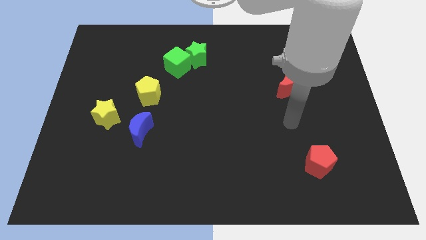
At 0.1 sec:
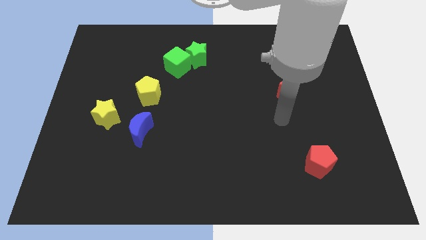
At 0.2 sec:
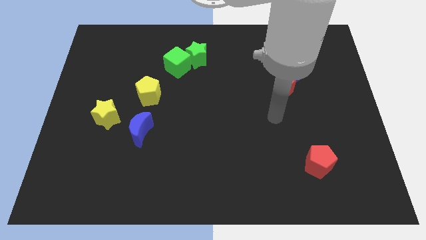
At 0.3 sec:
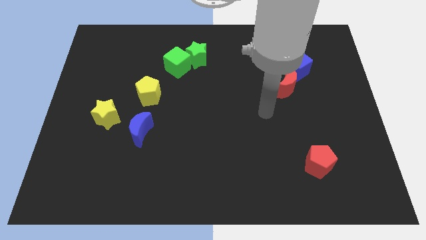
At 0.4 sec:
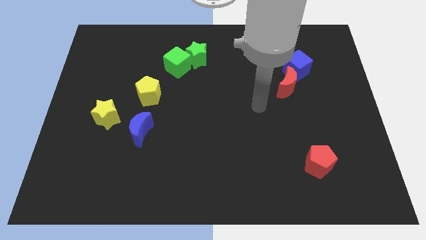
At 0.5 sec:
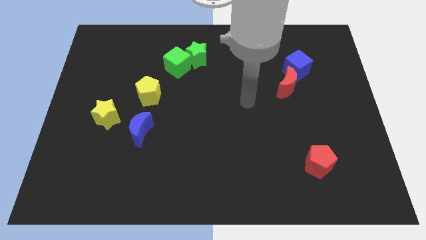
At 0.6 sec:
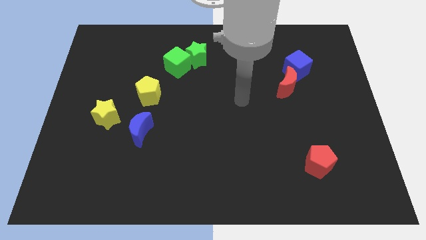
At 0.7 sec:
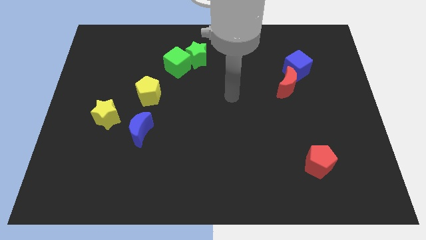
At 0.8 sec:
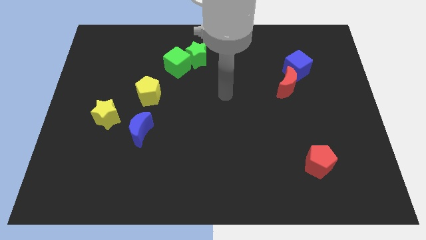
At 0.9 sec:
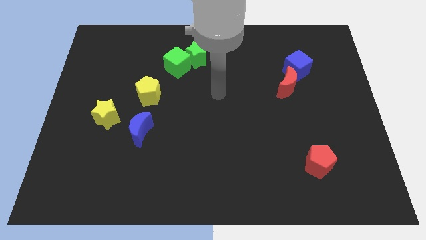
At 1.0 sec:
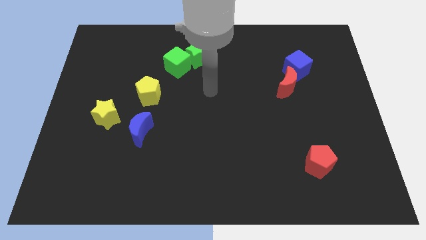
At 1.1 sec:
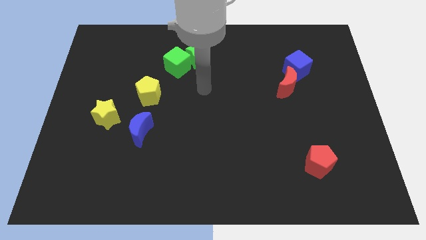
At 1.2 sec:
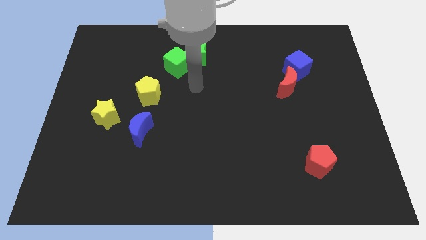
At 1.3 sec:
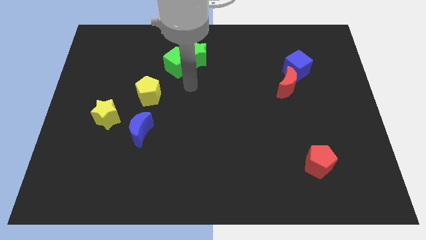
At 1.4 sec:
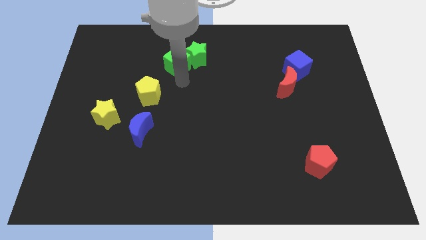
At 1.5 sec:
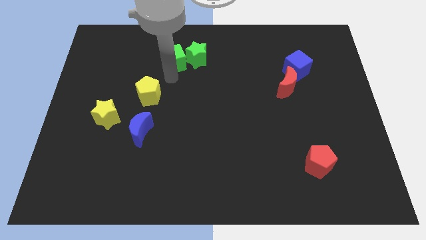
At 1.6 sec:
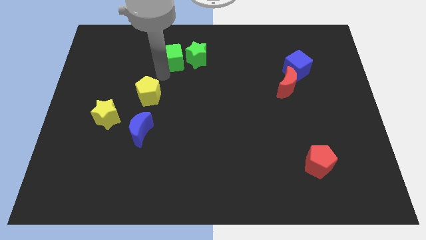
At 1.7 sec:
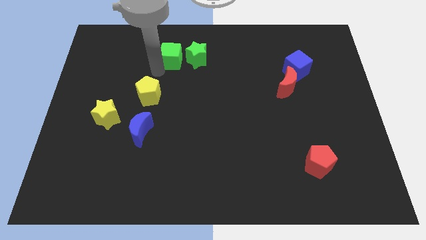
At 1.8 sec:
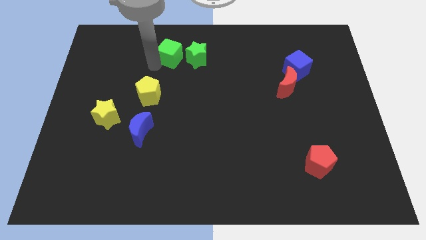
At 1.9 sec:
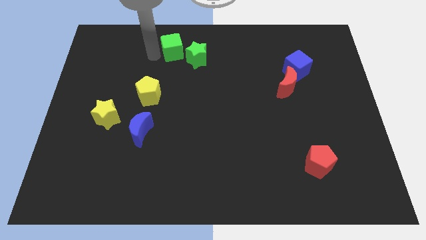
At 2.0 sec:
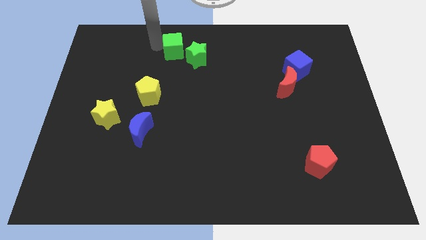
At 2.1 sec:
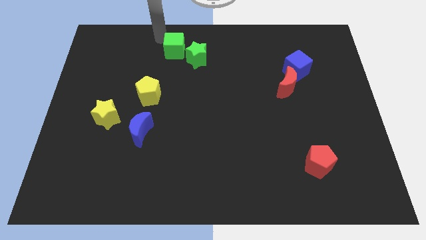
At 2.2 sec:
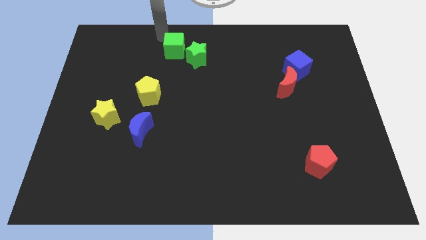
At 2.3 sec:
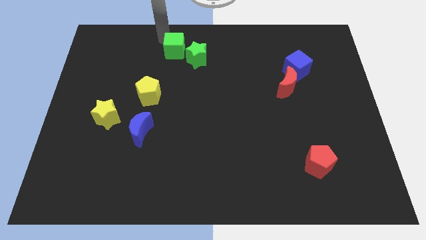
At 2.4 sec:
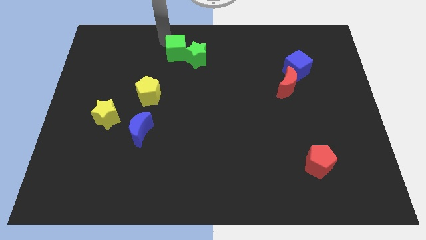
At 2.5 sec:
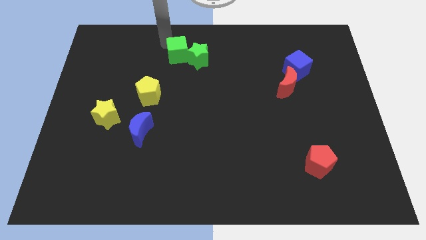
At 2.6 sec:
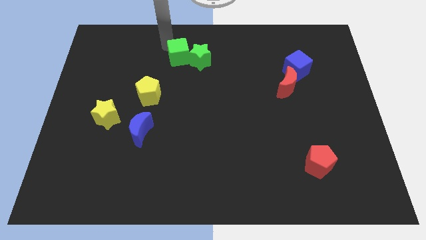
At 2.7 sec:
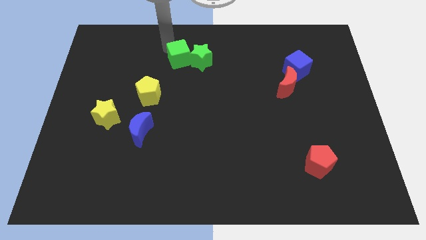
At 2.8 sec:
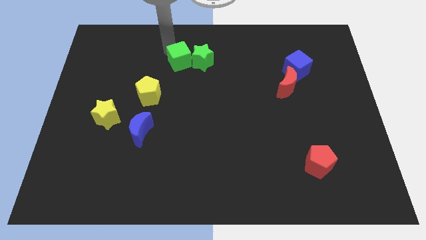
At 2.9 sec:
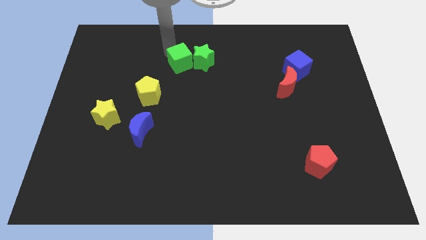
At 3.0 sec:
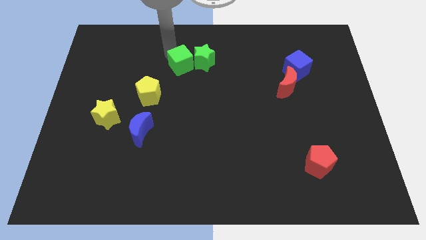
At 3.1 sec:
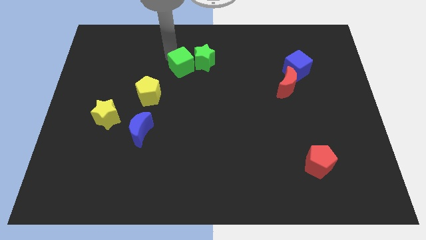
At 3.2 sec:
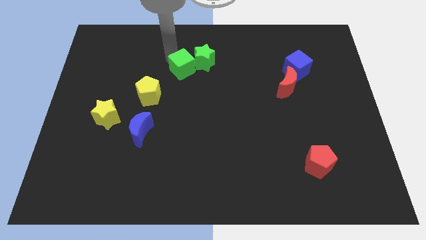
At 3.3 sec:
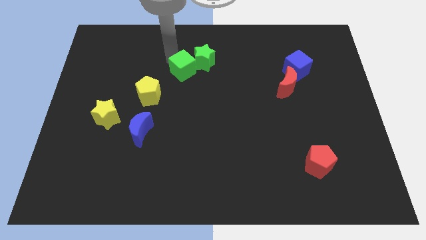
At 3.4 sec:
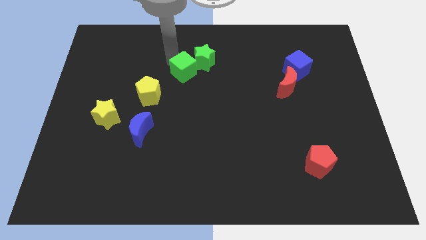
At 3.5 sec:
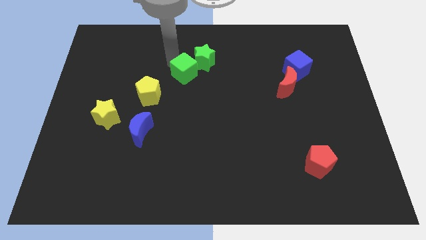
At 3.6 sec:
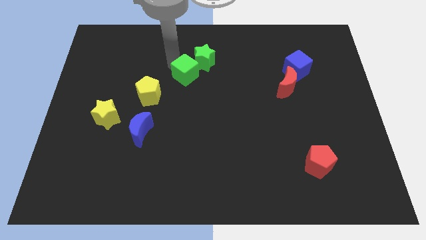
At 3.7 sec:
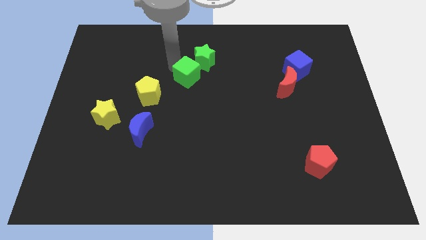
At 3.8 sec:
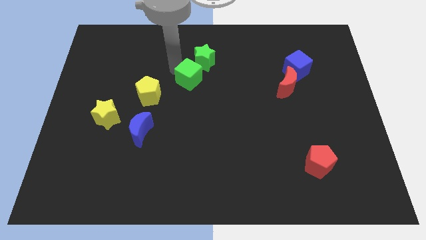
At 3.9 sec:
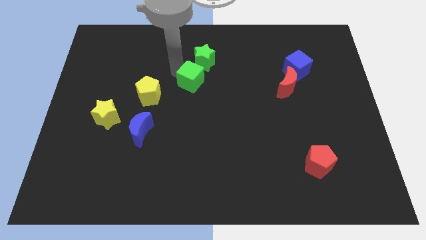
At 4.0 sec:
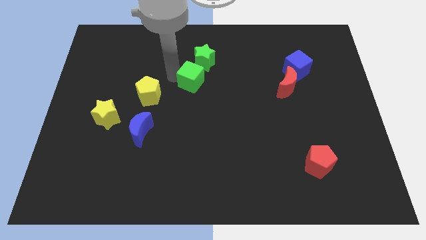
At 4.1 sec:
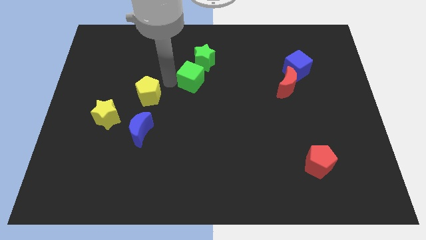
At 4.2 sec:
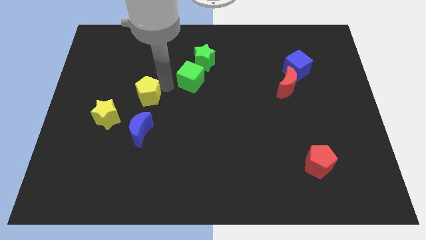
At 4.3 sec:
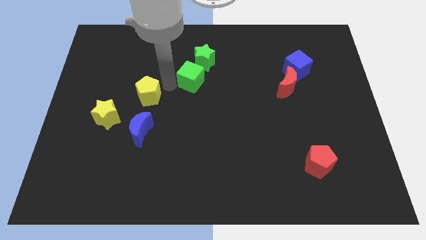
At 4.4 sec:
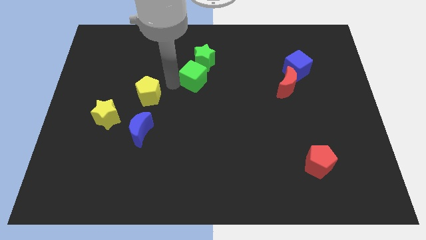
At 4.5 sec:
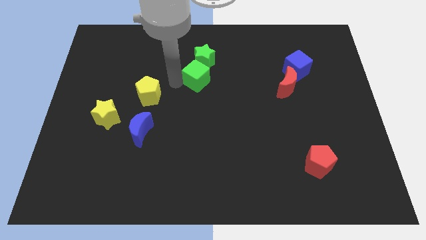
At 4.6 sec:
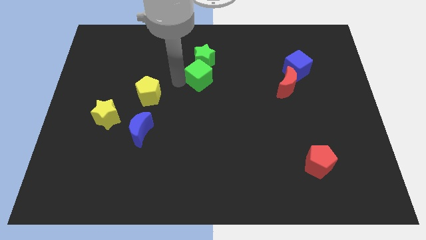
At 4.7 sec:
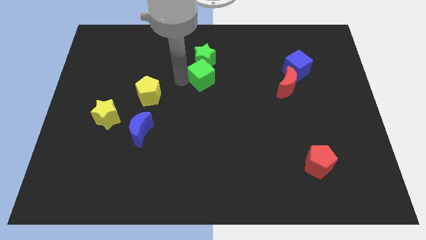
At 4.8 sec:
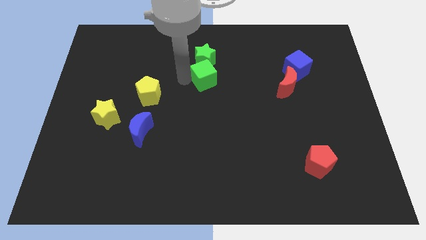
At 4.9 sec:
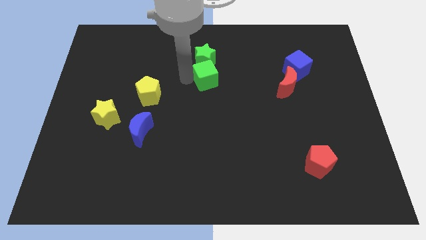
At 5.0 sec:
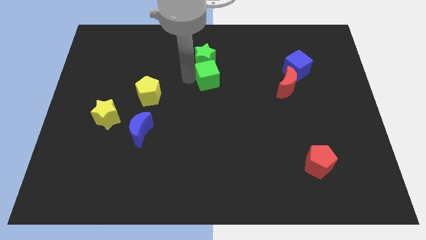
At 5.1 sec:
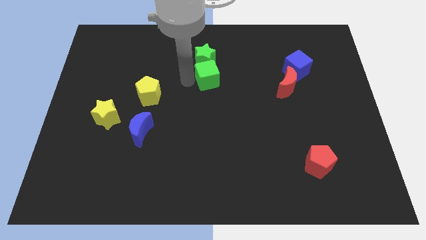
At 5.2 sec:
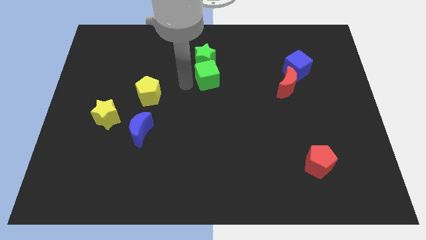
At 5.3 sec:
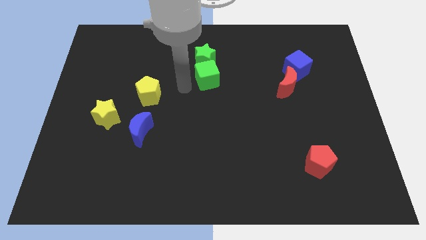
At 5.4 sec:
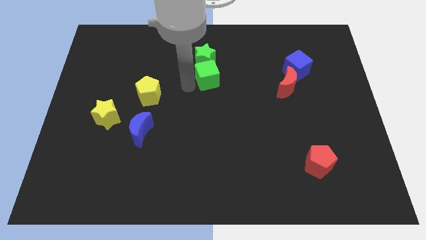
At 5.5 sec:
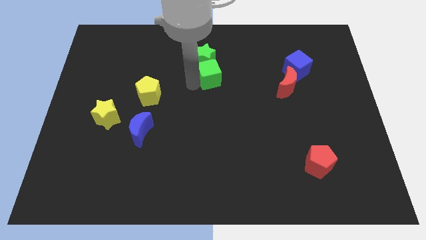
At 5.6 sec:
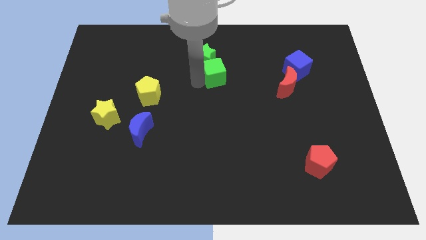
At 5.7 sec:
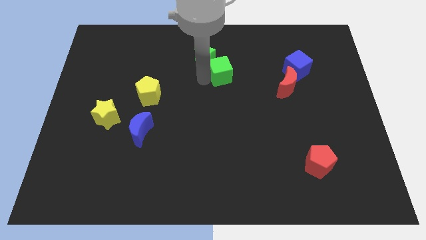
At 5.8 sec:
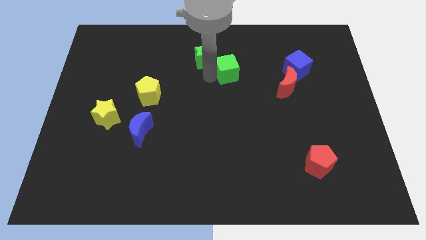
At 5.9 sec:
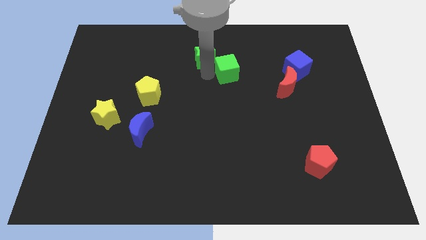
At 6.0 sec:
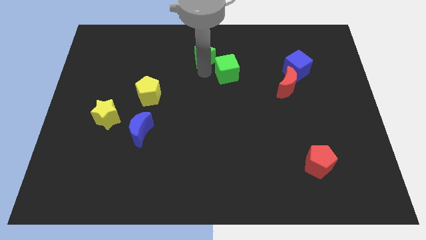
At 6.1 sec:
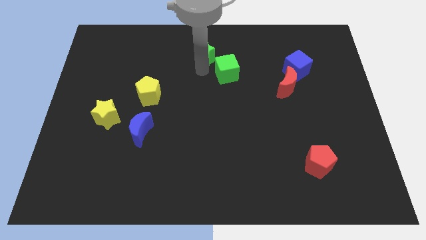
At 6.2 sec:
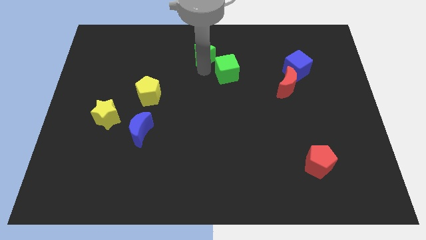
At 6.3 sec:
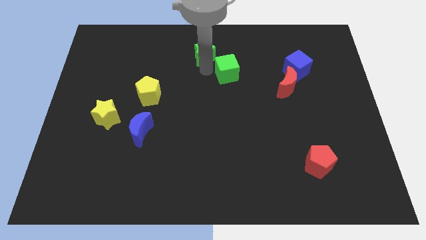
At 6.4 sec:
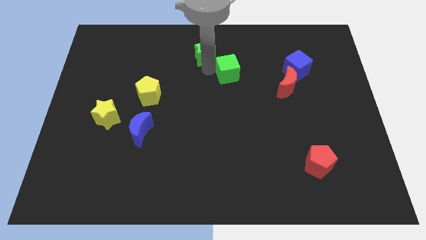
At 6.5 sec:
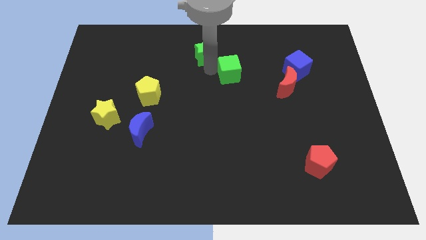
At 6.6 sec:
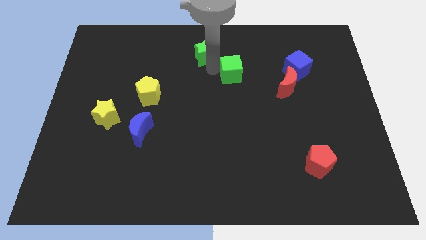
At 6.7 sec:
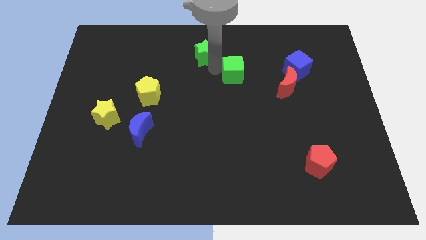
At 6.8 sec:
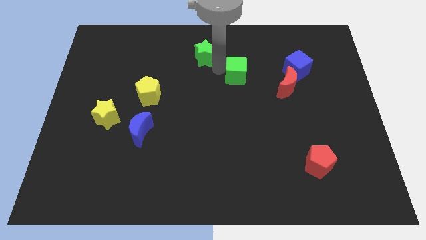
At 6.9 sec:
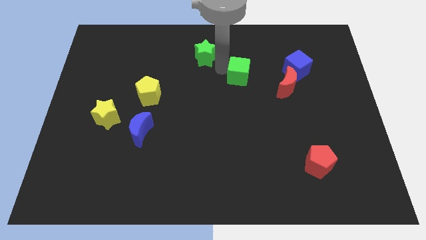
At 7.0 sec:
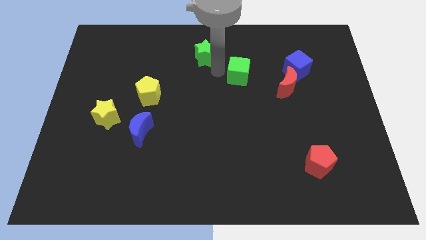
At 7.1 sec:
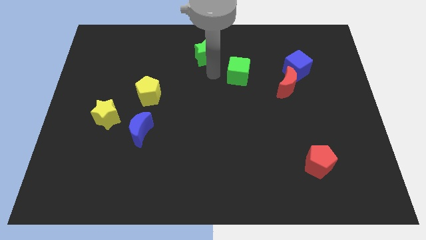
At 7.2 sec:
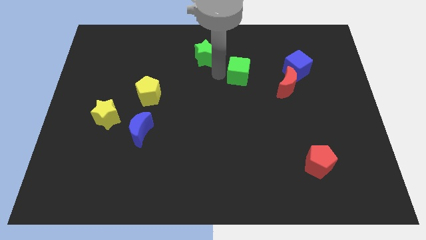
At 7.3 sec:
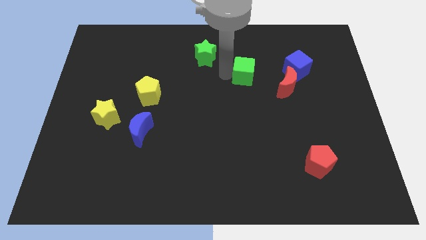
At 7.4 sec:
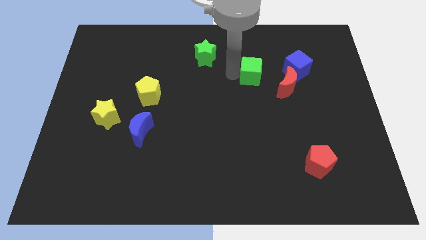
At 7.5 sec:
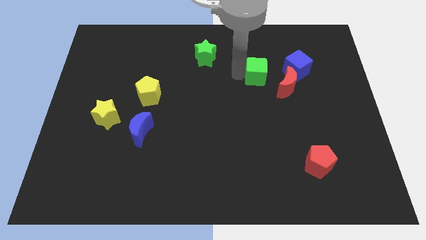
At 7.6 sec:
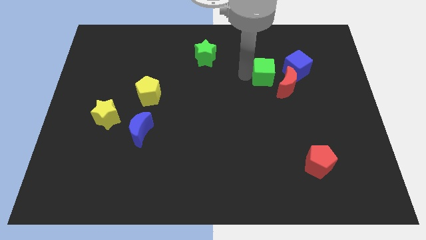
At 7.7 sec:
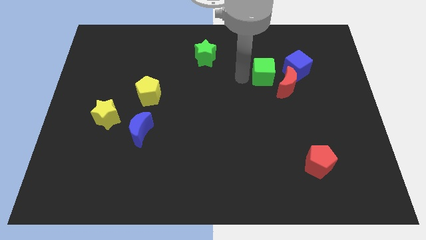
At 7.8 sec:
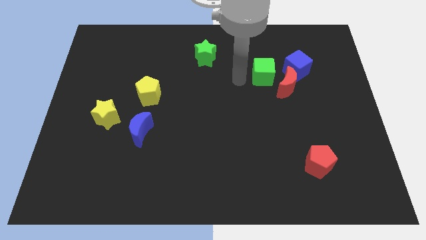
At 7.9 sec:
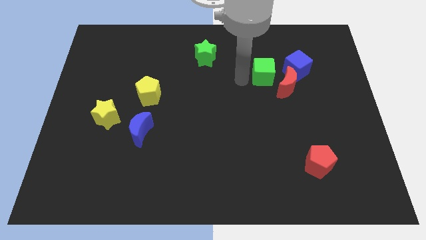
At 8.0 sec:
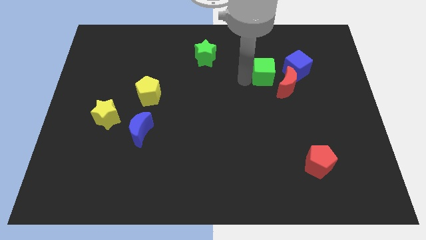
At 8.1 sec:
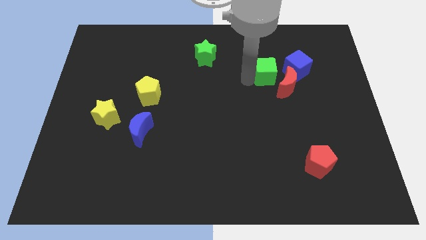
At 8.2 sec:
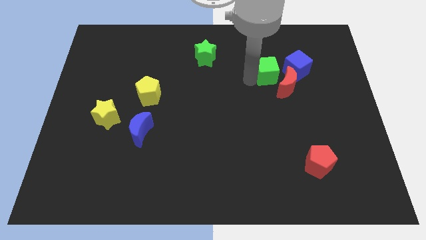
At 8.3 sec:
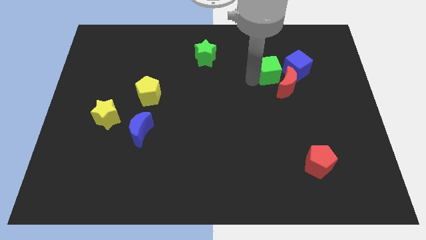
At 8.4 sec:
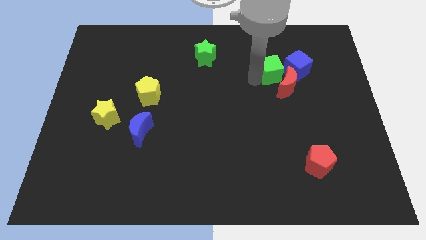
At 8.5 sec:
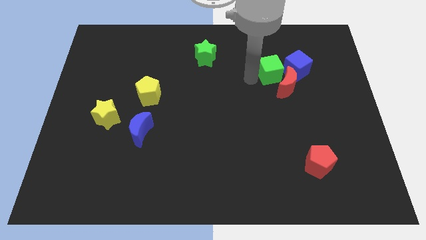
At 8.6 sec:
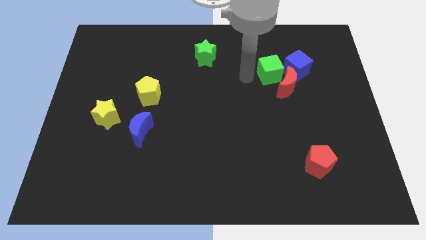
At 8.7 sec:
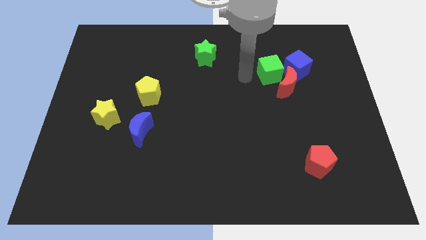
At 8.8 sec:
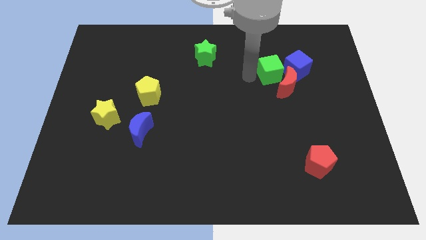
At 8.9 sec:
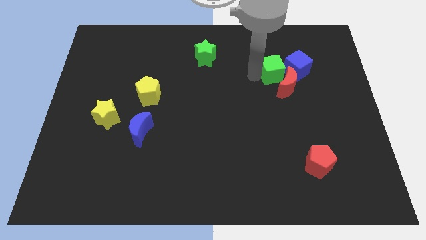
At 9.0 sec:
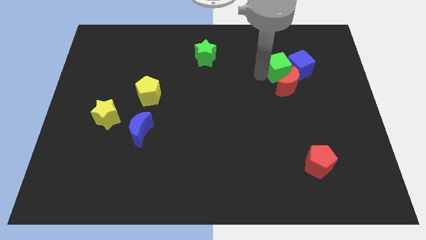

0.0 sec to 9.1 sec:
slide the green cube next to the blue cube
